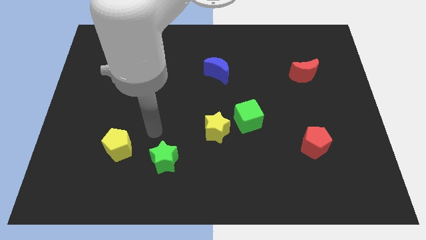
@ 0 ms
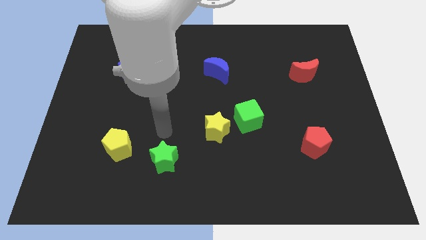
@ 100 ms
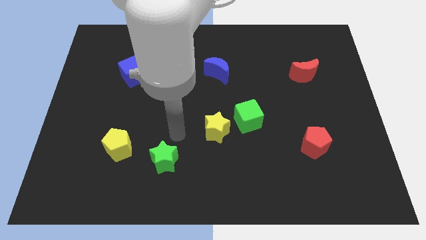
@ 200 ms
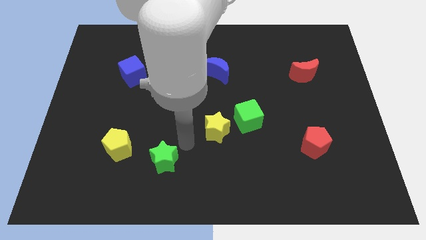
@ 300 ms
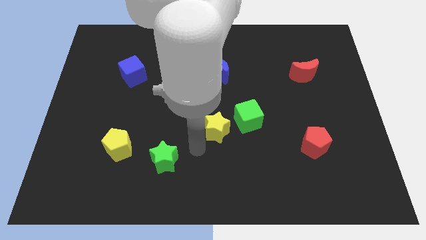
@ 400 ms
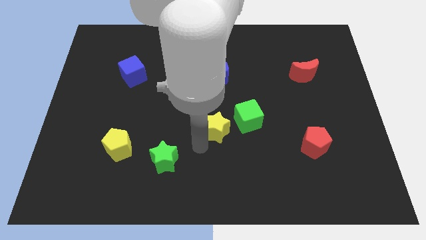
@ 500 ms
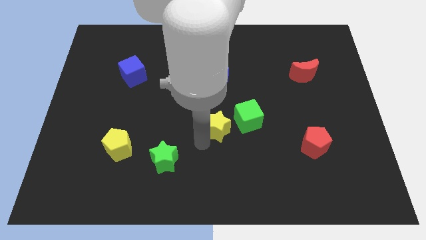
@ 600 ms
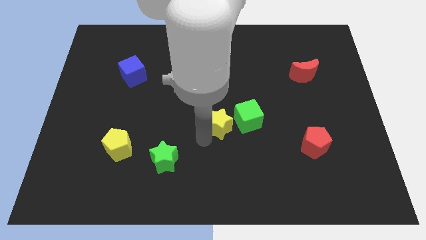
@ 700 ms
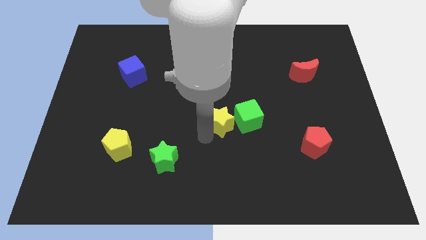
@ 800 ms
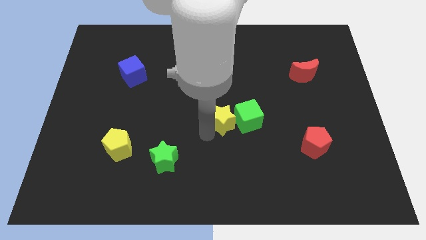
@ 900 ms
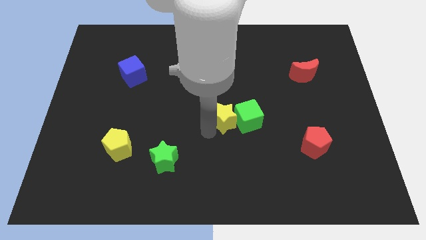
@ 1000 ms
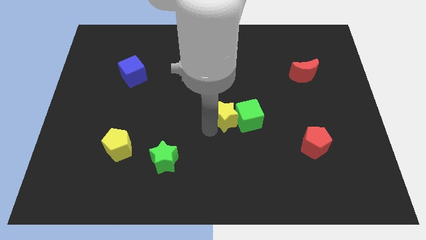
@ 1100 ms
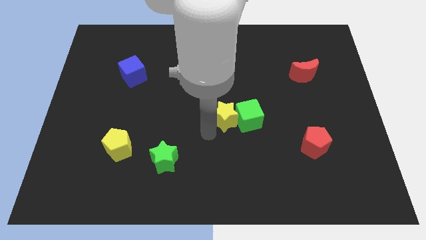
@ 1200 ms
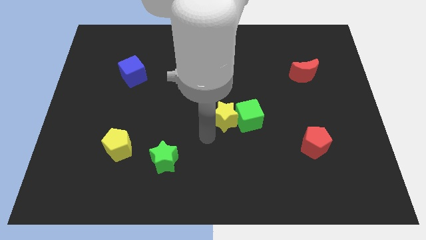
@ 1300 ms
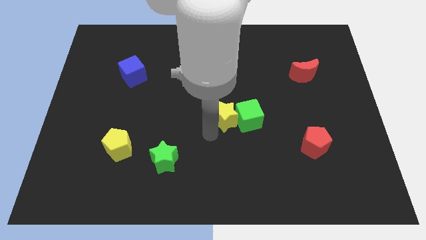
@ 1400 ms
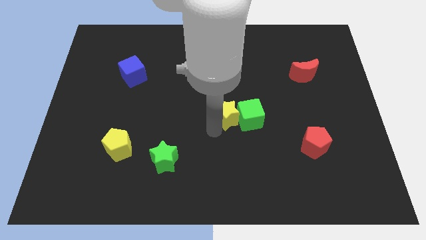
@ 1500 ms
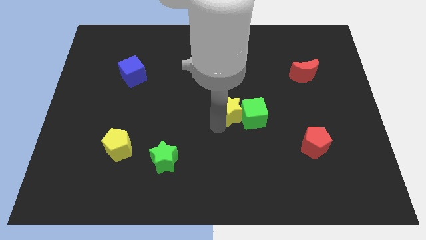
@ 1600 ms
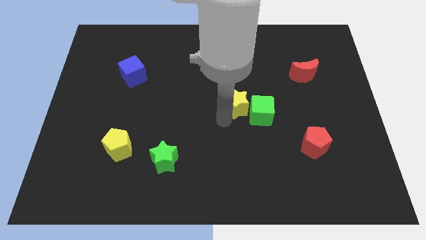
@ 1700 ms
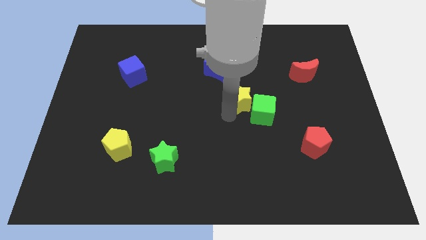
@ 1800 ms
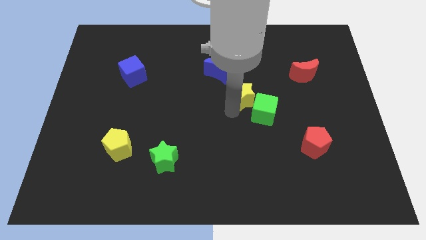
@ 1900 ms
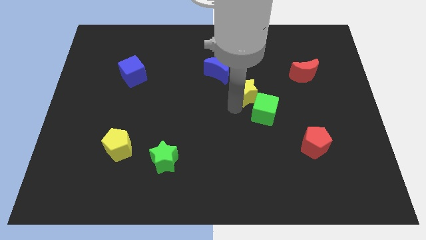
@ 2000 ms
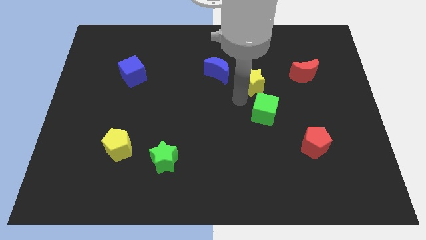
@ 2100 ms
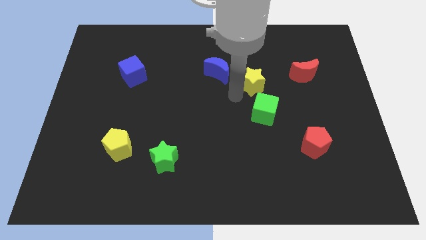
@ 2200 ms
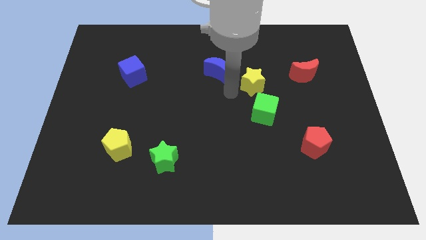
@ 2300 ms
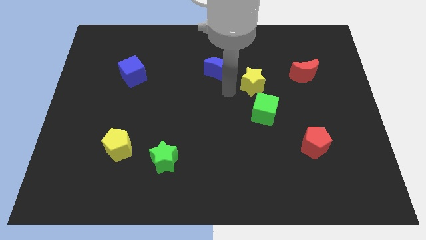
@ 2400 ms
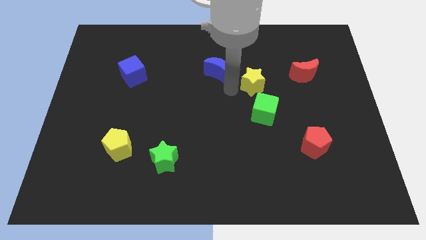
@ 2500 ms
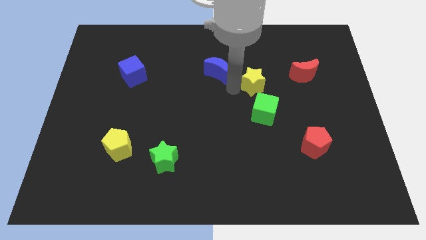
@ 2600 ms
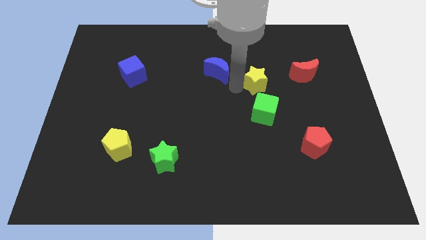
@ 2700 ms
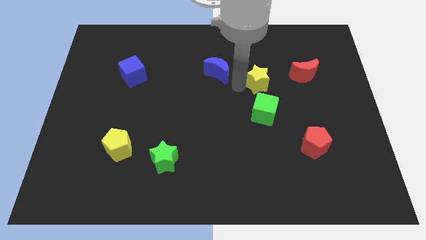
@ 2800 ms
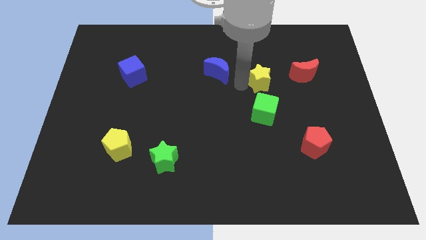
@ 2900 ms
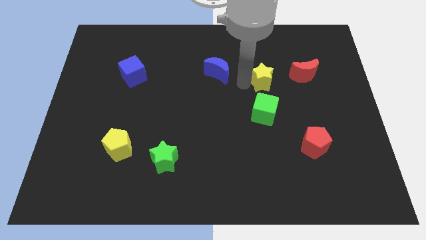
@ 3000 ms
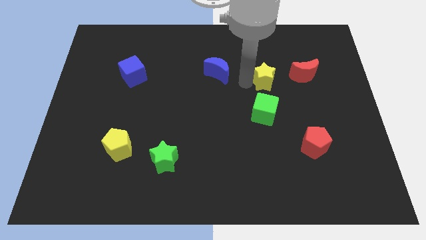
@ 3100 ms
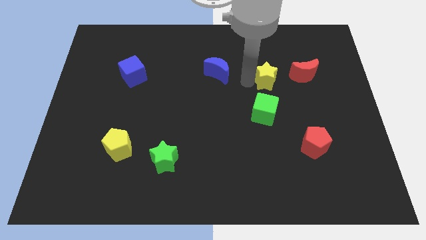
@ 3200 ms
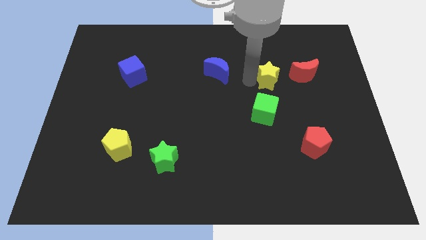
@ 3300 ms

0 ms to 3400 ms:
push the yellow star diagonally up and right

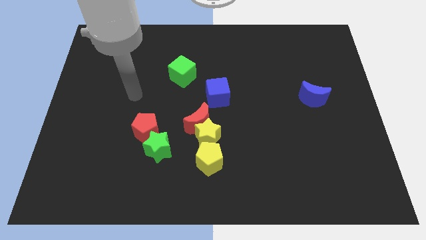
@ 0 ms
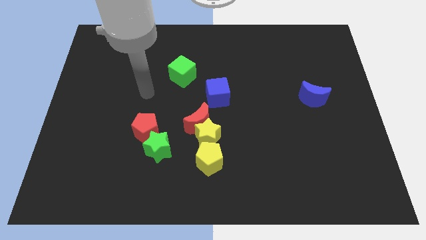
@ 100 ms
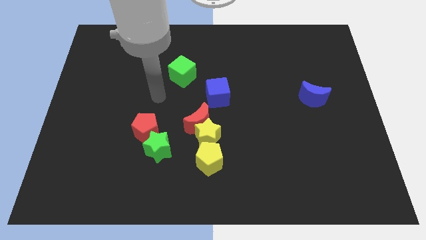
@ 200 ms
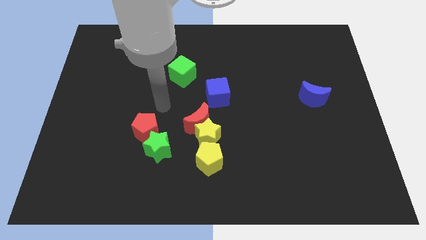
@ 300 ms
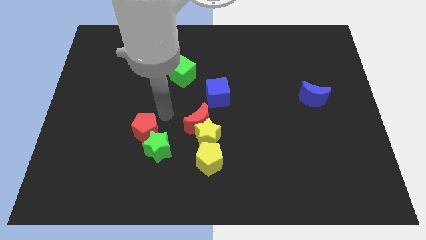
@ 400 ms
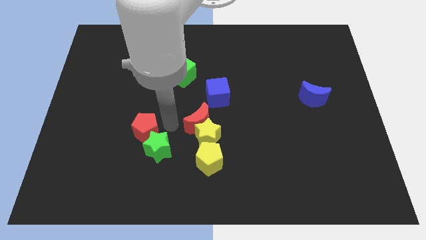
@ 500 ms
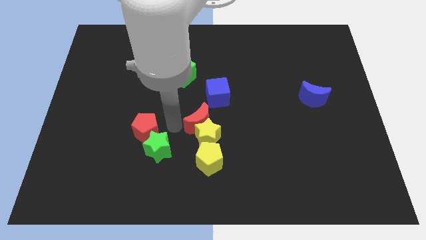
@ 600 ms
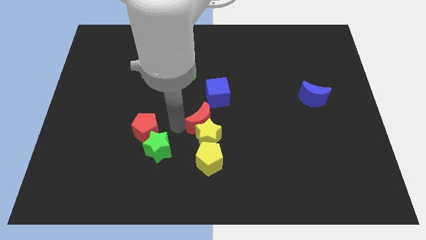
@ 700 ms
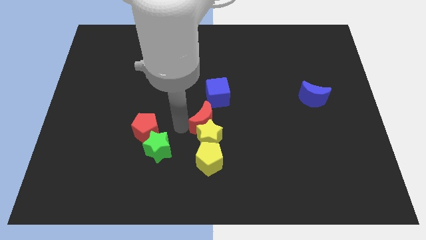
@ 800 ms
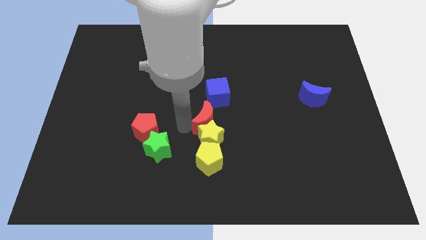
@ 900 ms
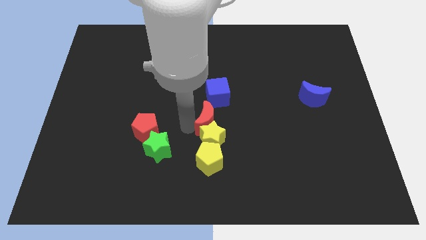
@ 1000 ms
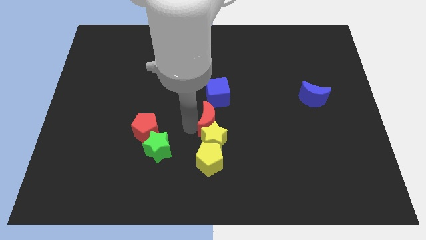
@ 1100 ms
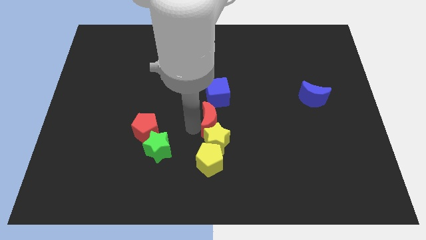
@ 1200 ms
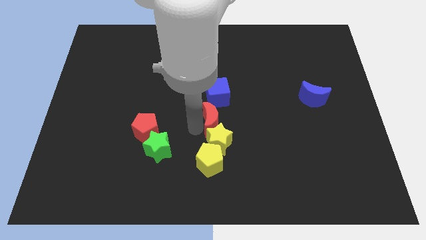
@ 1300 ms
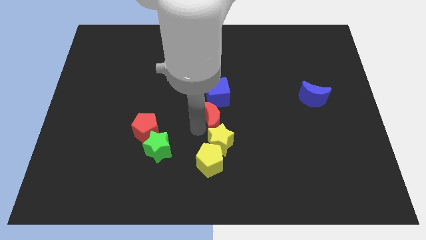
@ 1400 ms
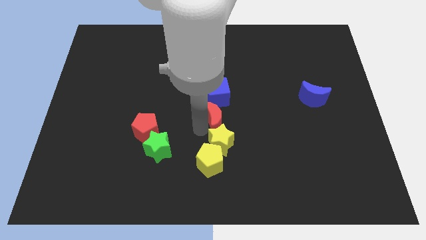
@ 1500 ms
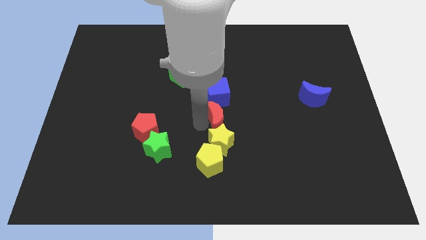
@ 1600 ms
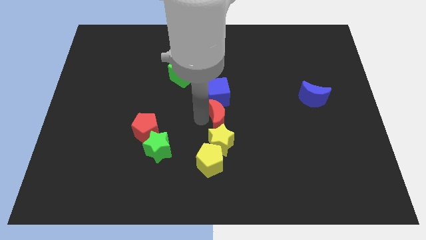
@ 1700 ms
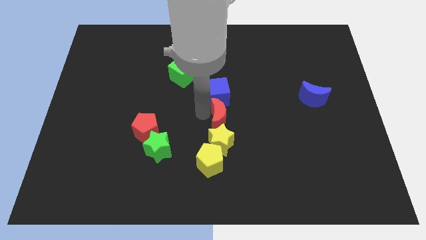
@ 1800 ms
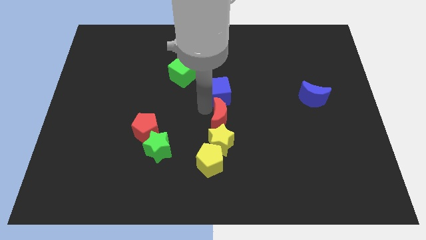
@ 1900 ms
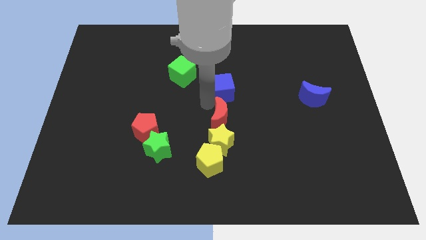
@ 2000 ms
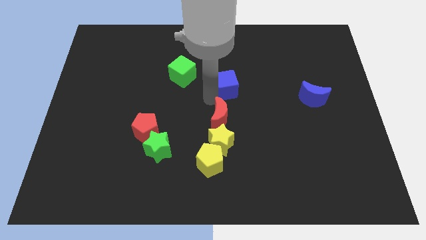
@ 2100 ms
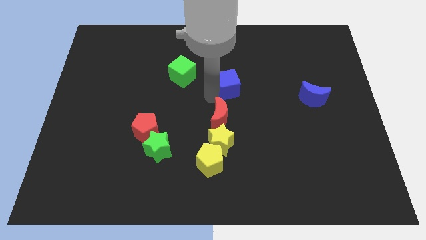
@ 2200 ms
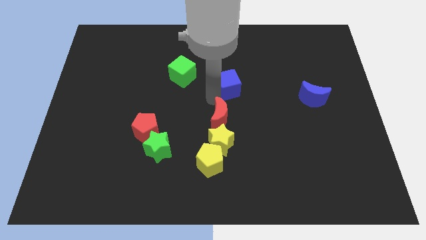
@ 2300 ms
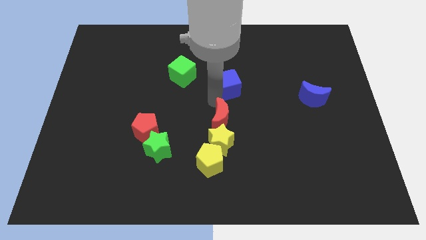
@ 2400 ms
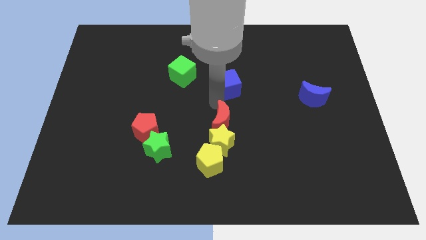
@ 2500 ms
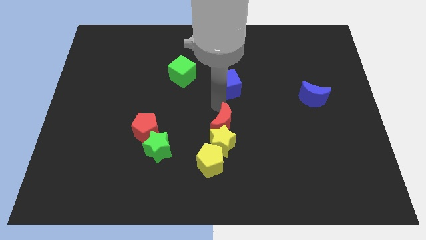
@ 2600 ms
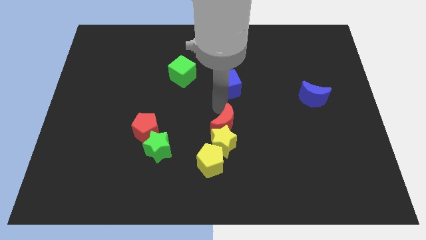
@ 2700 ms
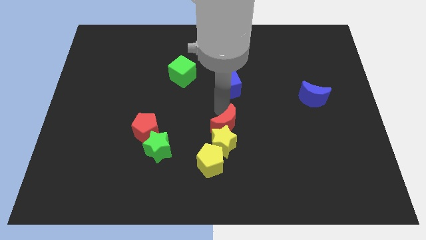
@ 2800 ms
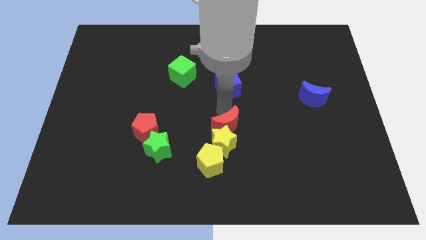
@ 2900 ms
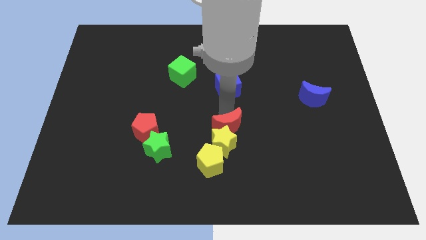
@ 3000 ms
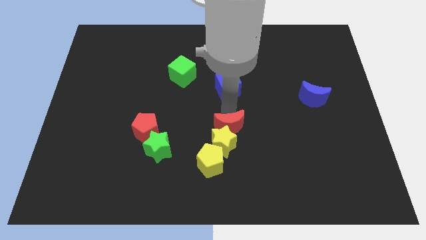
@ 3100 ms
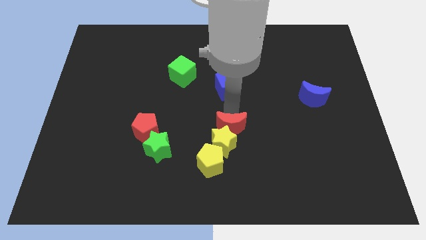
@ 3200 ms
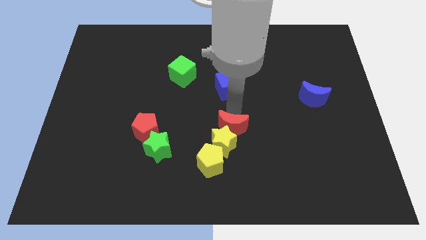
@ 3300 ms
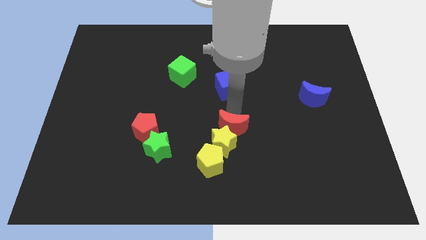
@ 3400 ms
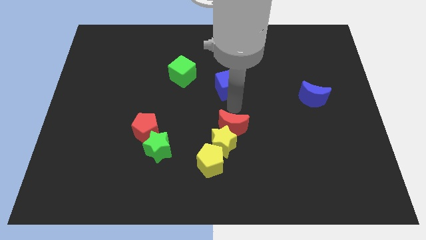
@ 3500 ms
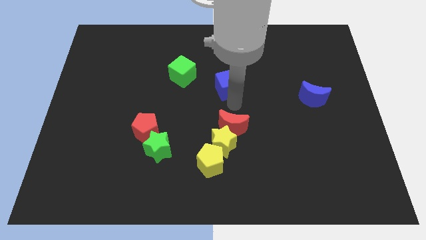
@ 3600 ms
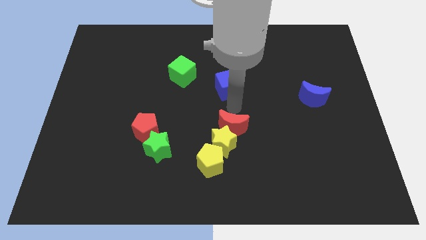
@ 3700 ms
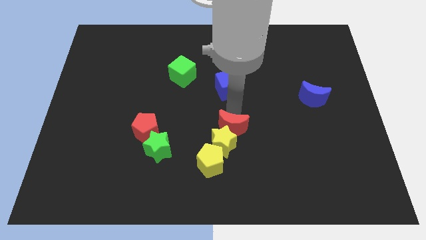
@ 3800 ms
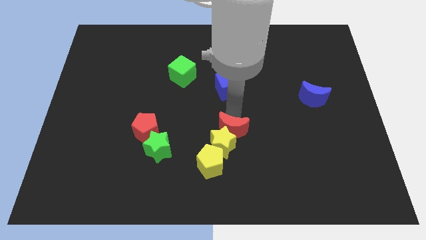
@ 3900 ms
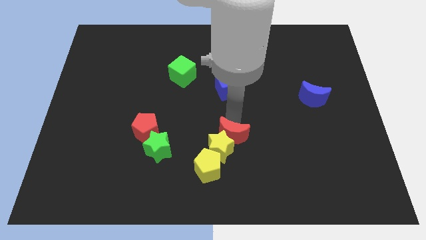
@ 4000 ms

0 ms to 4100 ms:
slightly push the red moon down and right

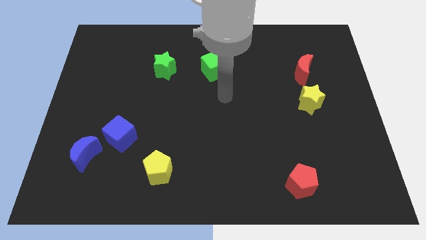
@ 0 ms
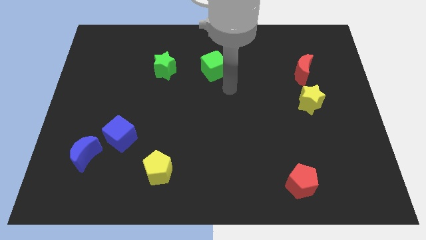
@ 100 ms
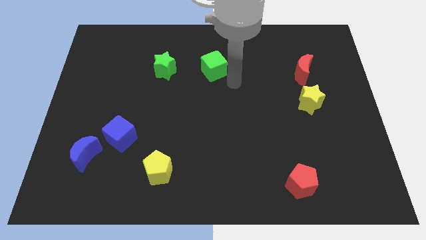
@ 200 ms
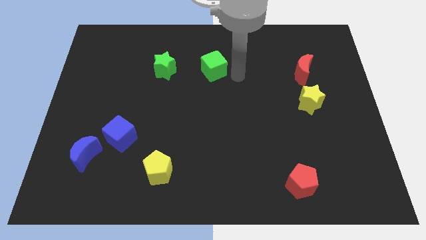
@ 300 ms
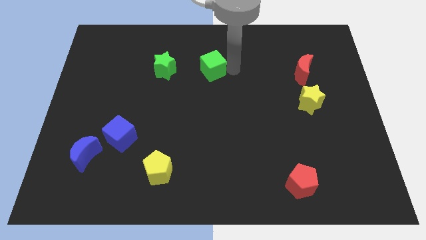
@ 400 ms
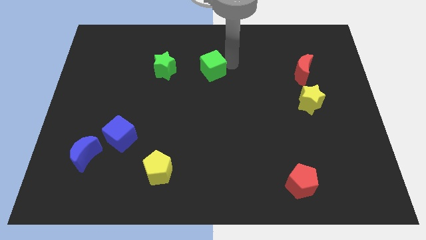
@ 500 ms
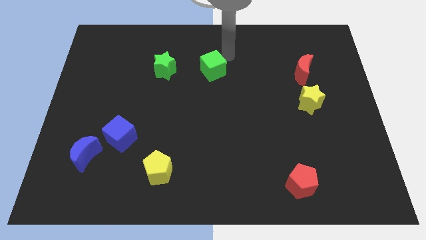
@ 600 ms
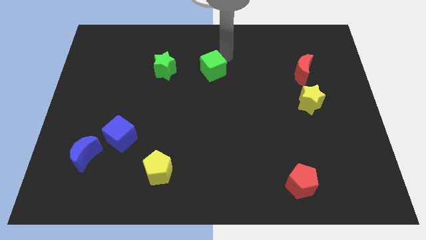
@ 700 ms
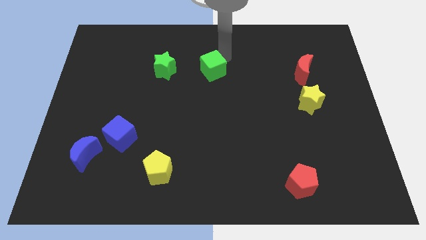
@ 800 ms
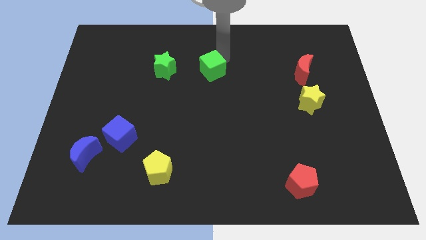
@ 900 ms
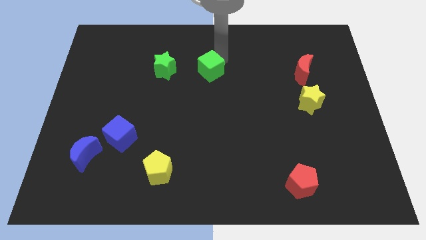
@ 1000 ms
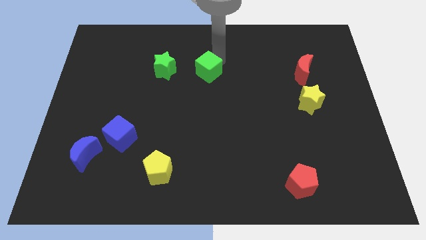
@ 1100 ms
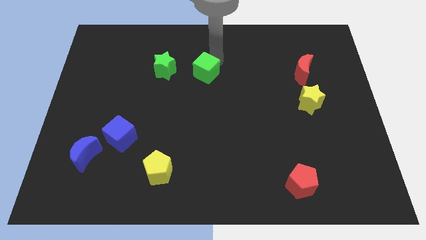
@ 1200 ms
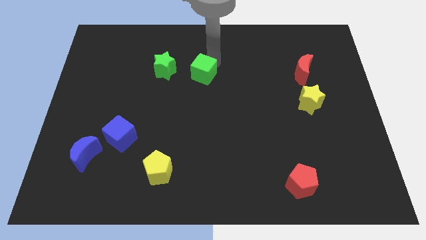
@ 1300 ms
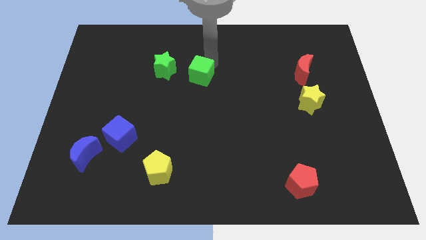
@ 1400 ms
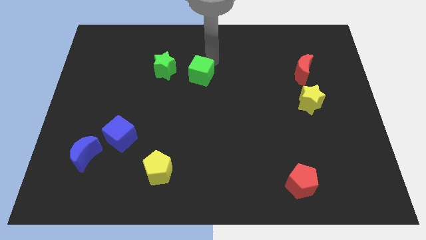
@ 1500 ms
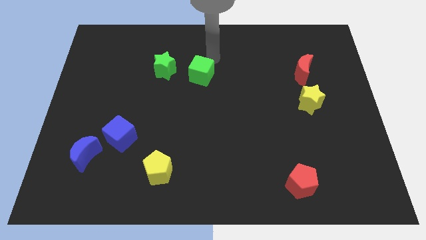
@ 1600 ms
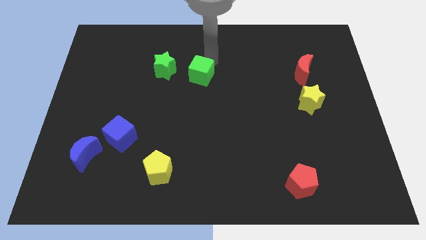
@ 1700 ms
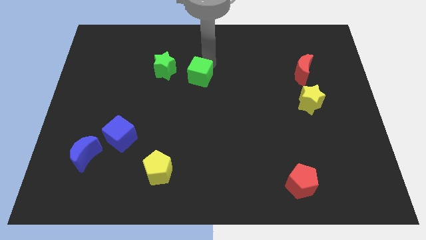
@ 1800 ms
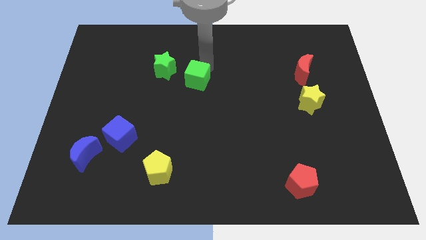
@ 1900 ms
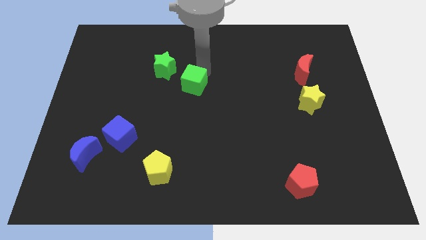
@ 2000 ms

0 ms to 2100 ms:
move the green cube diagonally downwards and left slightly
